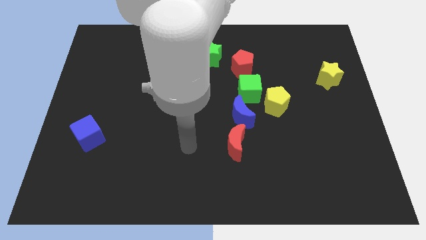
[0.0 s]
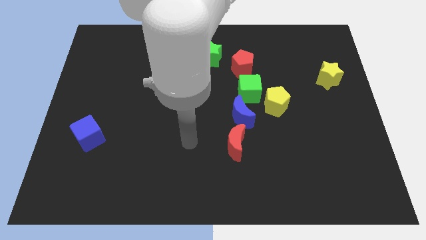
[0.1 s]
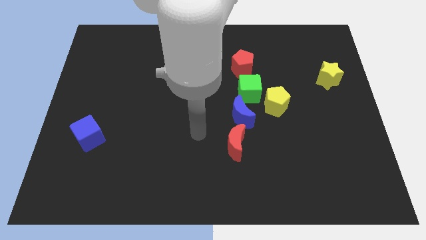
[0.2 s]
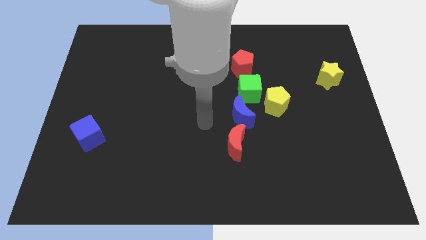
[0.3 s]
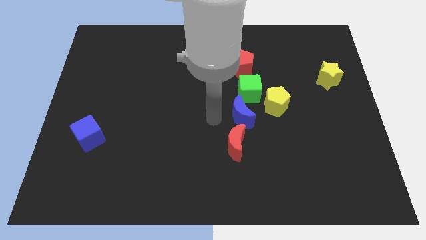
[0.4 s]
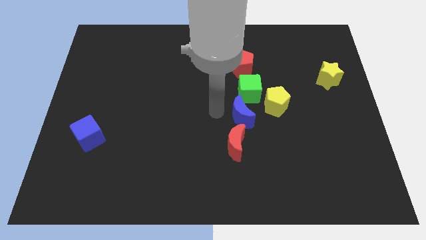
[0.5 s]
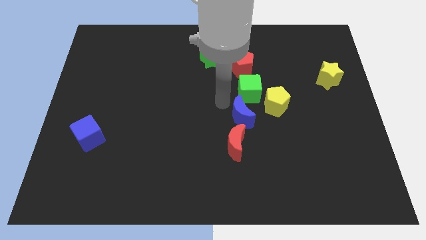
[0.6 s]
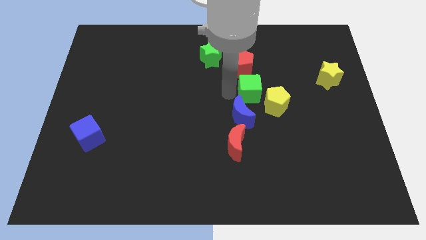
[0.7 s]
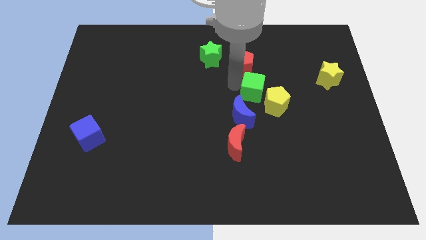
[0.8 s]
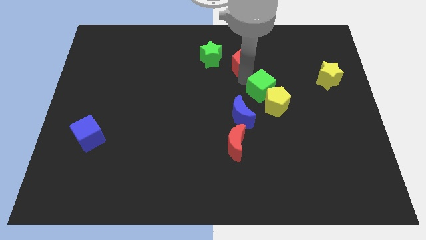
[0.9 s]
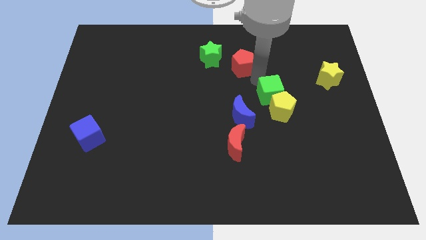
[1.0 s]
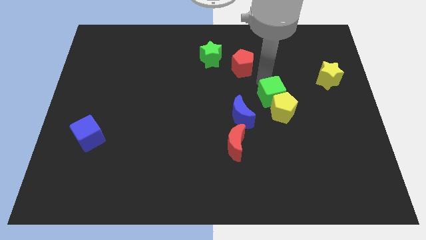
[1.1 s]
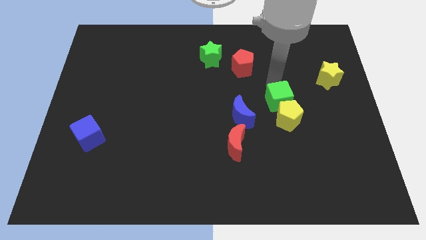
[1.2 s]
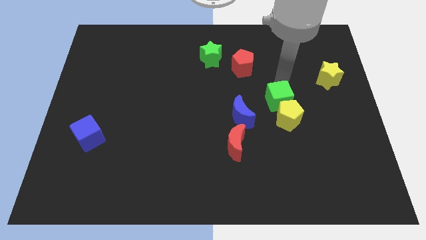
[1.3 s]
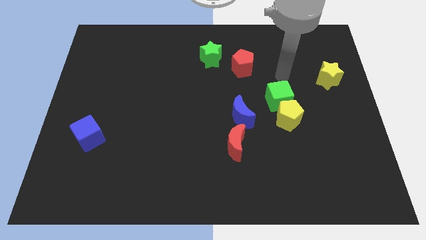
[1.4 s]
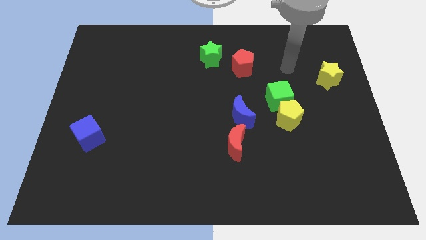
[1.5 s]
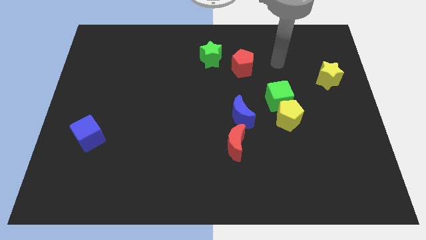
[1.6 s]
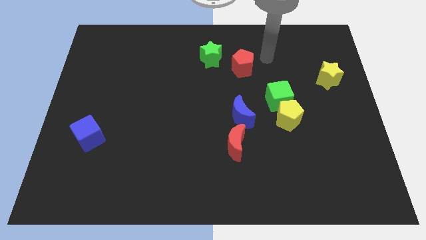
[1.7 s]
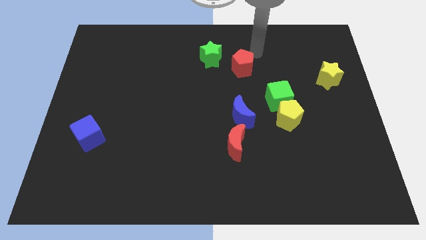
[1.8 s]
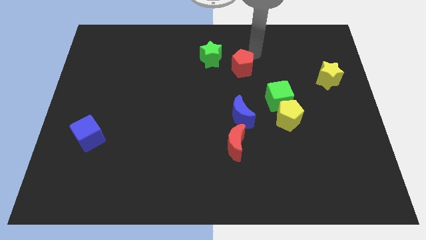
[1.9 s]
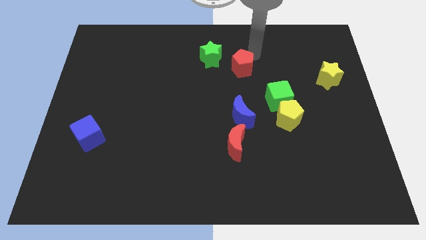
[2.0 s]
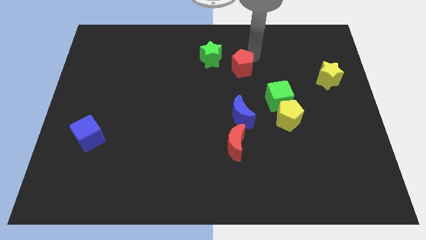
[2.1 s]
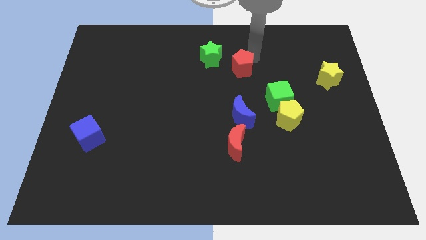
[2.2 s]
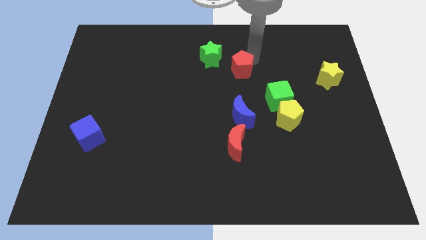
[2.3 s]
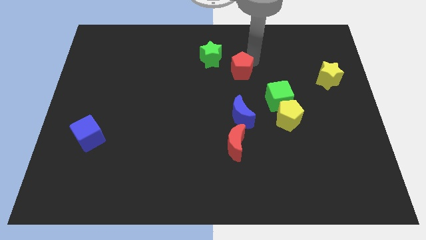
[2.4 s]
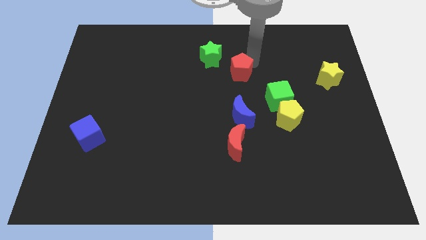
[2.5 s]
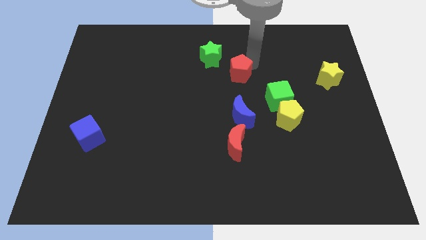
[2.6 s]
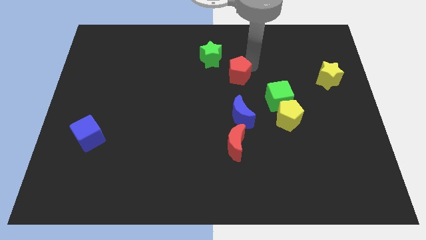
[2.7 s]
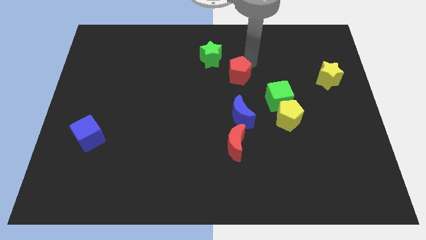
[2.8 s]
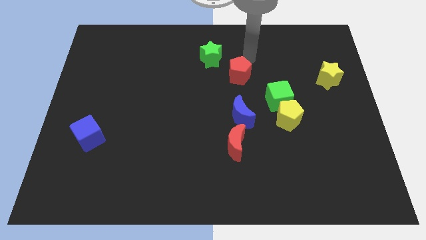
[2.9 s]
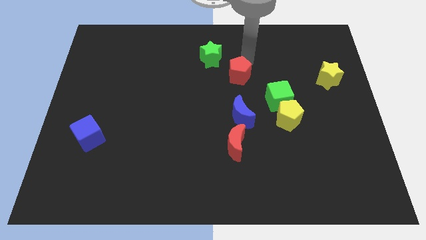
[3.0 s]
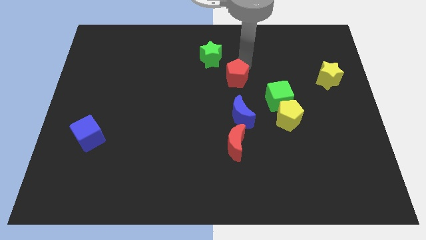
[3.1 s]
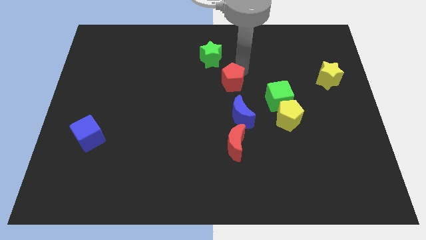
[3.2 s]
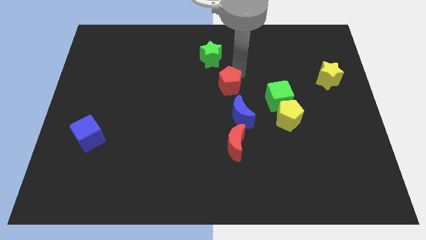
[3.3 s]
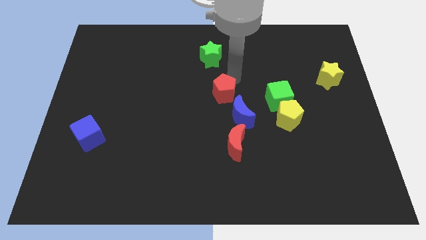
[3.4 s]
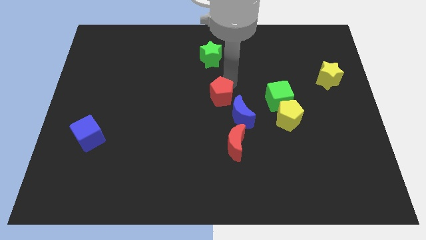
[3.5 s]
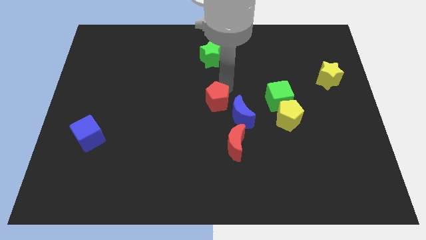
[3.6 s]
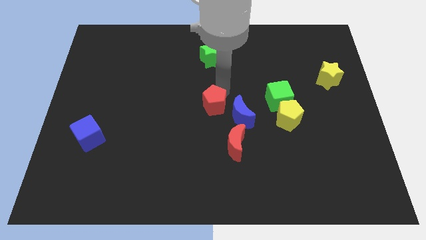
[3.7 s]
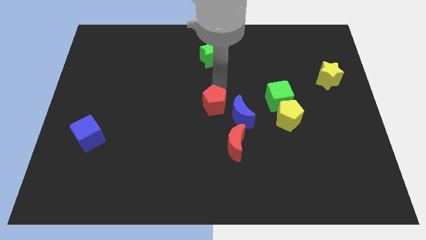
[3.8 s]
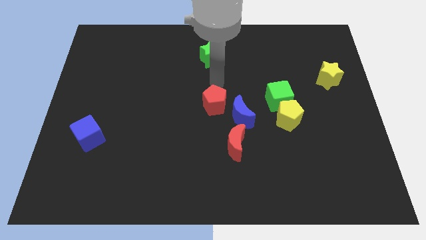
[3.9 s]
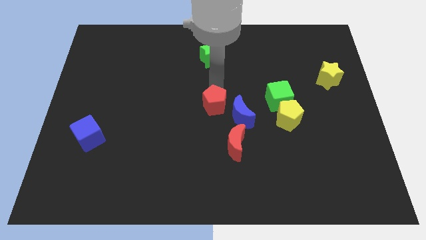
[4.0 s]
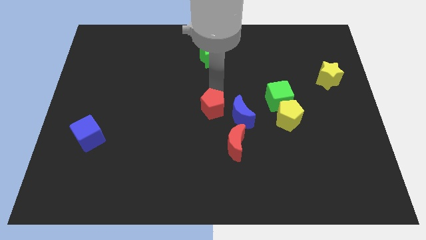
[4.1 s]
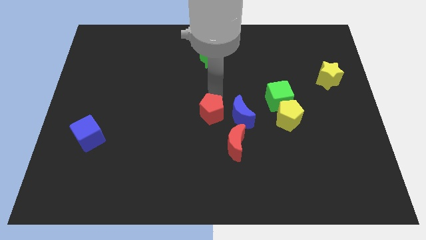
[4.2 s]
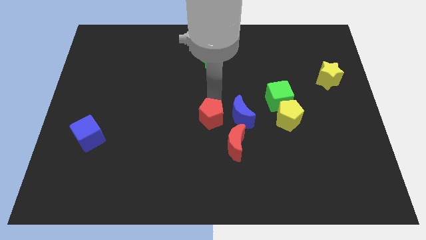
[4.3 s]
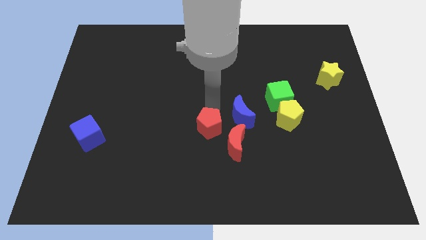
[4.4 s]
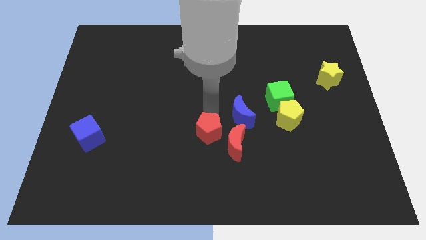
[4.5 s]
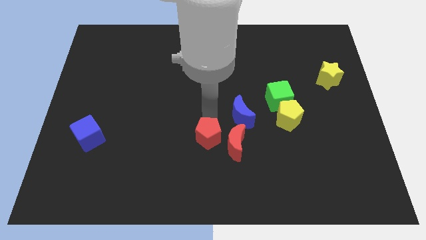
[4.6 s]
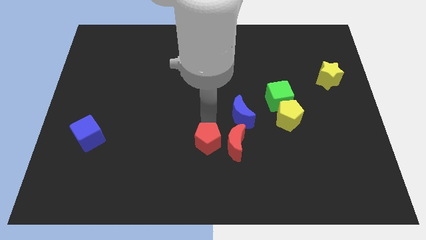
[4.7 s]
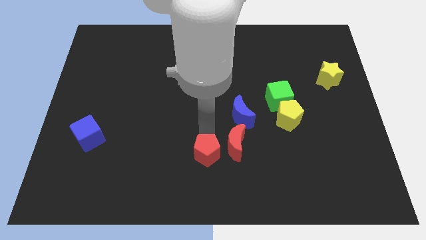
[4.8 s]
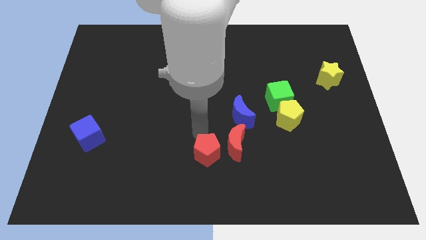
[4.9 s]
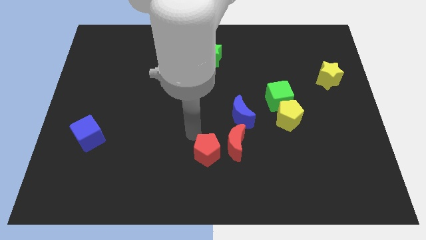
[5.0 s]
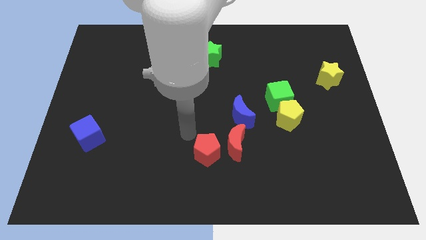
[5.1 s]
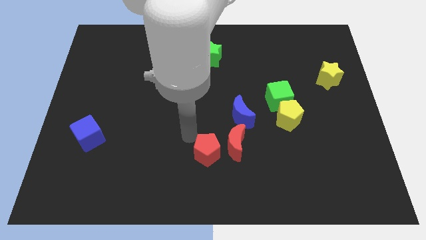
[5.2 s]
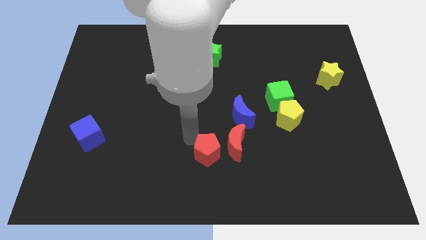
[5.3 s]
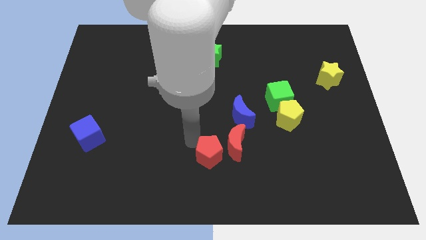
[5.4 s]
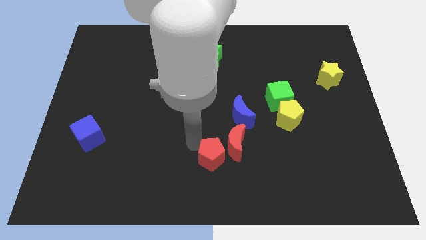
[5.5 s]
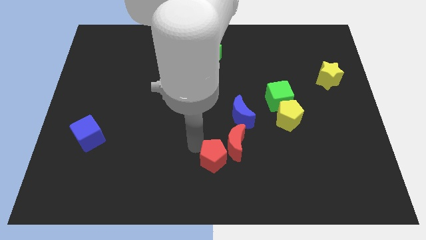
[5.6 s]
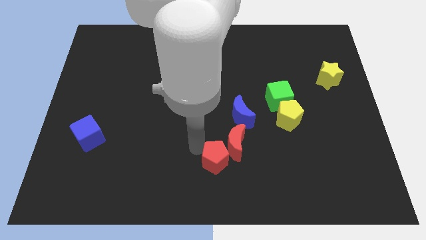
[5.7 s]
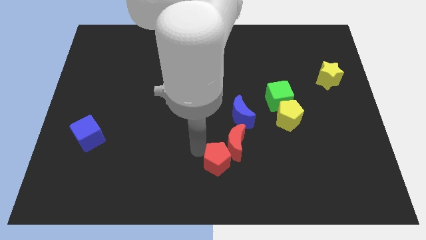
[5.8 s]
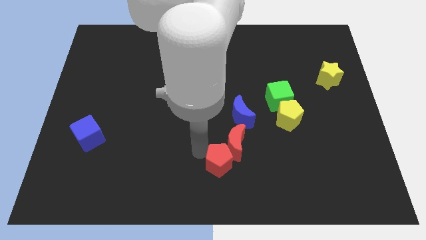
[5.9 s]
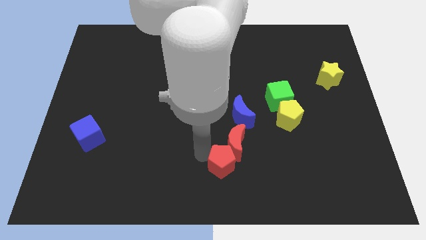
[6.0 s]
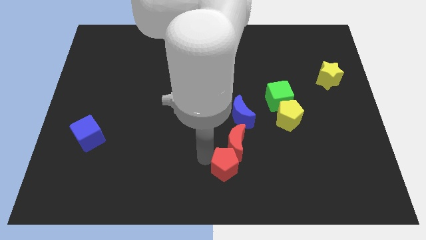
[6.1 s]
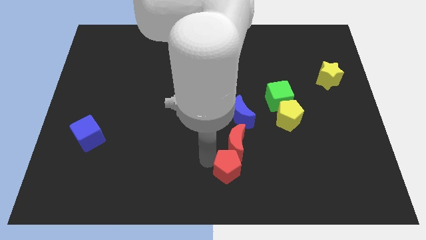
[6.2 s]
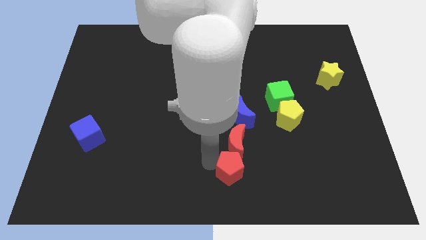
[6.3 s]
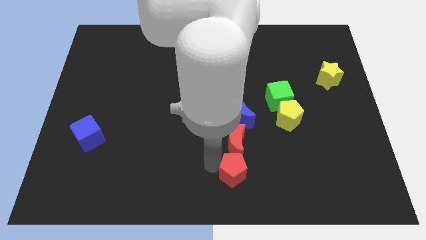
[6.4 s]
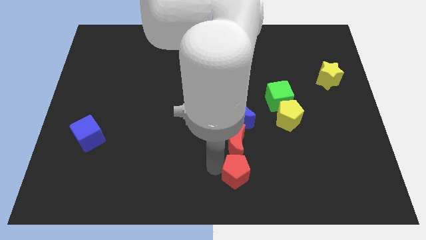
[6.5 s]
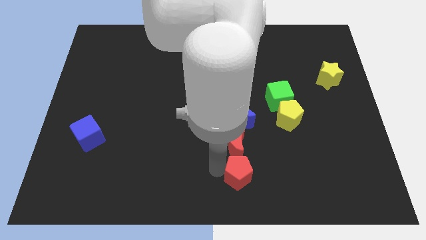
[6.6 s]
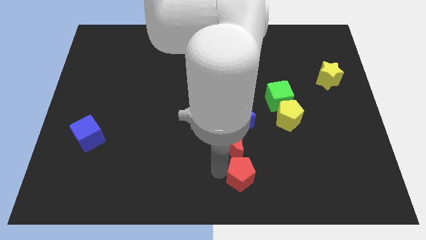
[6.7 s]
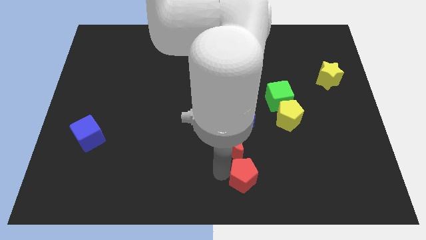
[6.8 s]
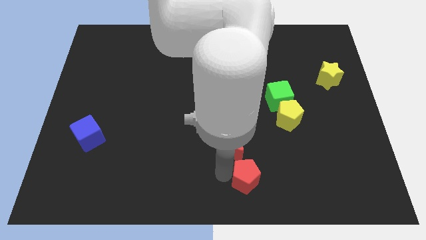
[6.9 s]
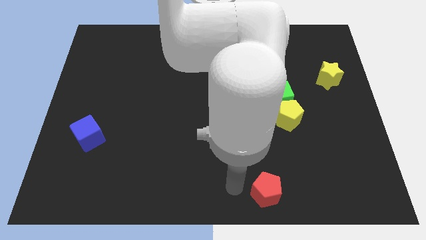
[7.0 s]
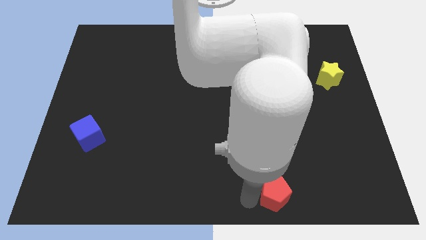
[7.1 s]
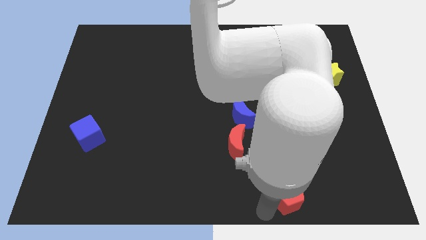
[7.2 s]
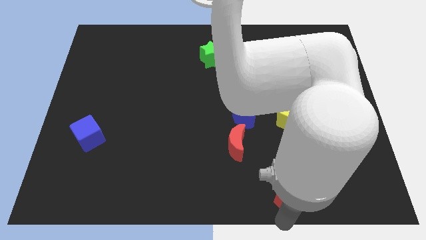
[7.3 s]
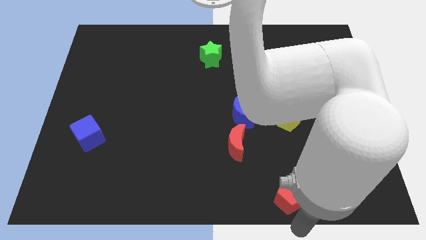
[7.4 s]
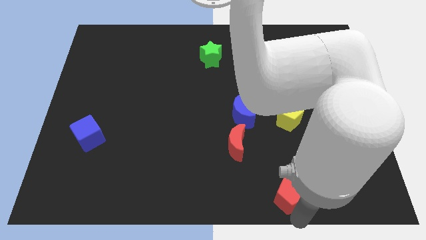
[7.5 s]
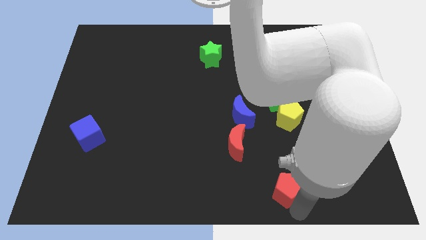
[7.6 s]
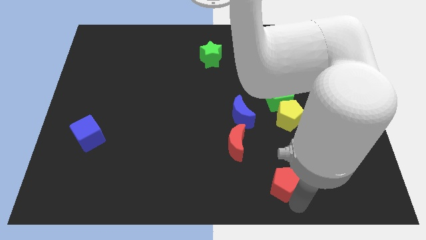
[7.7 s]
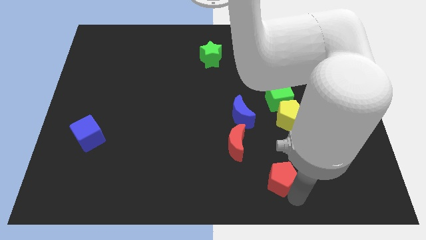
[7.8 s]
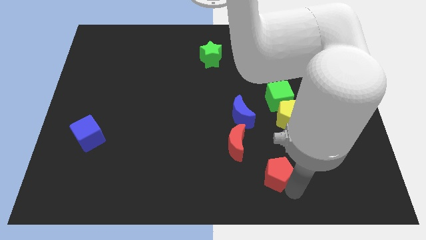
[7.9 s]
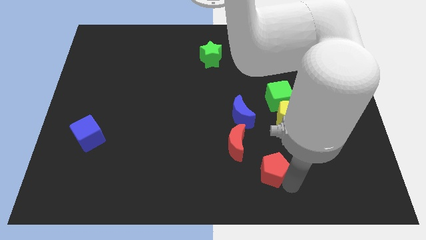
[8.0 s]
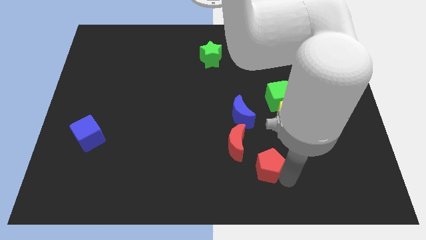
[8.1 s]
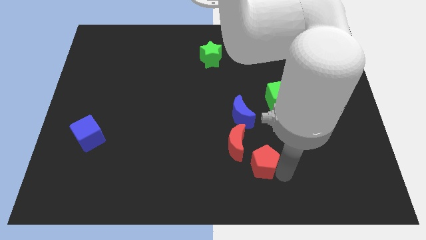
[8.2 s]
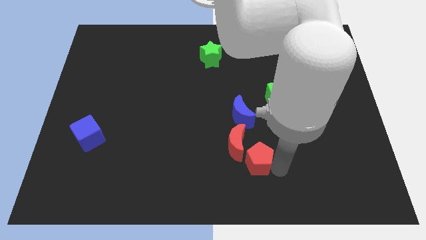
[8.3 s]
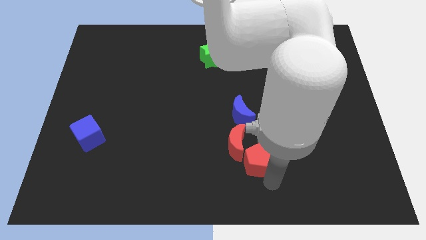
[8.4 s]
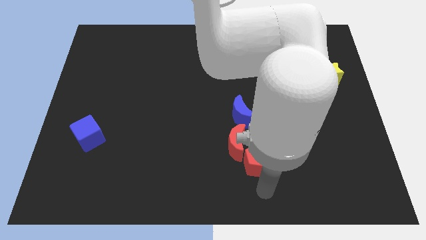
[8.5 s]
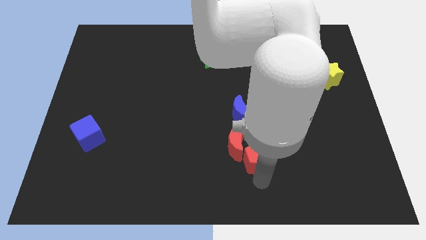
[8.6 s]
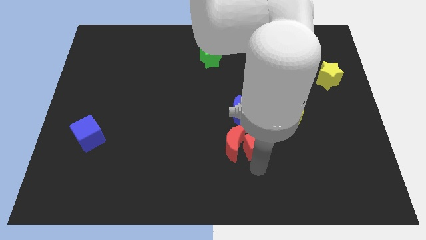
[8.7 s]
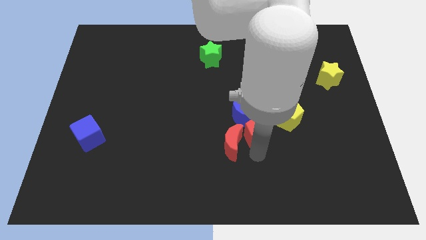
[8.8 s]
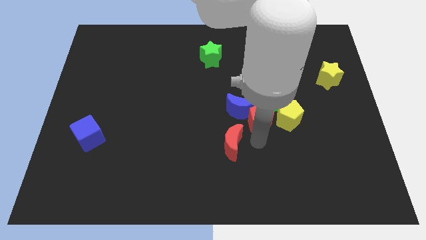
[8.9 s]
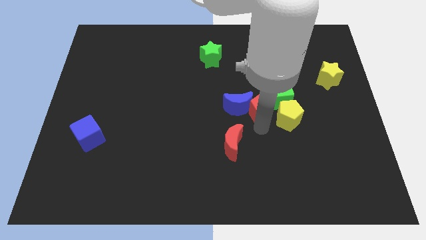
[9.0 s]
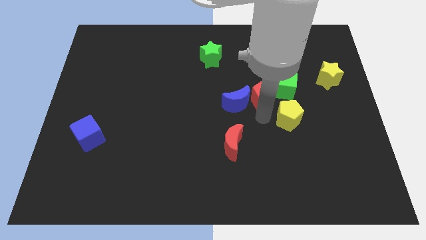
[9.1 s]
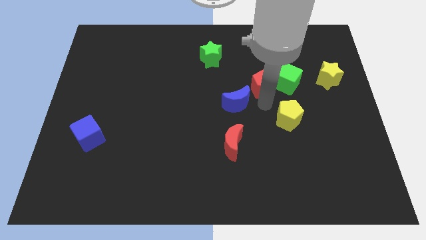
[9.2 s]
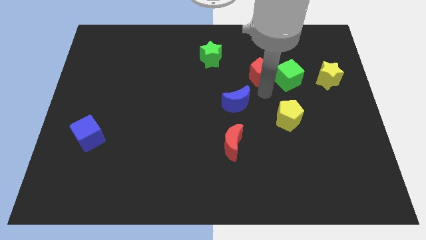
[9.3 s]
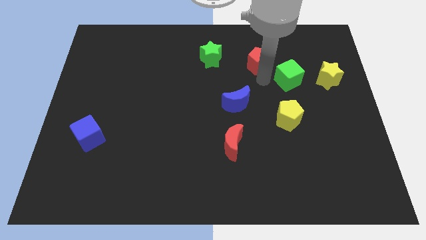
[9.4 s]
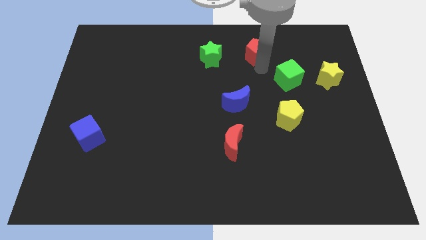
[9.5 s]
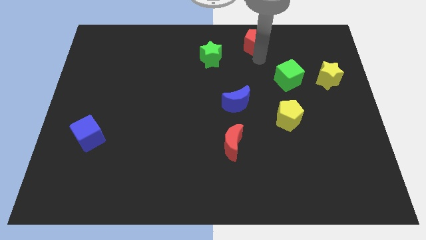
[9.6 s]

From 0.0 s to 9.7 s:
push the red pentagon to the top
